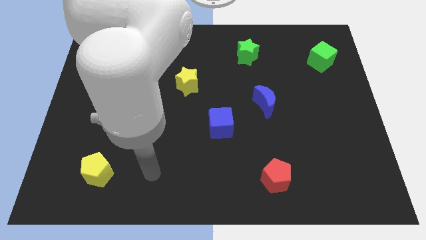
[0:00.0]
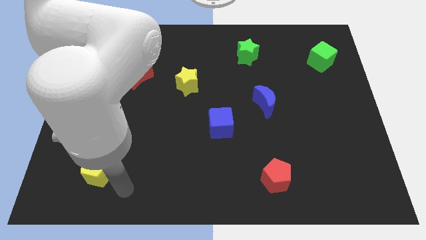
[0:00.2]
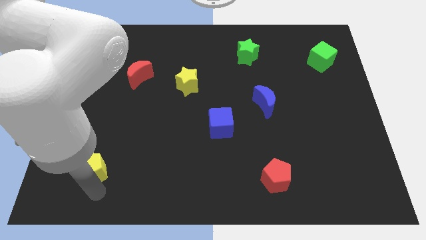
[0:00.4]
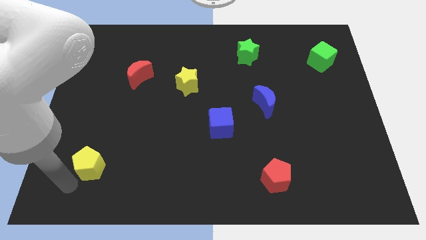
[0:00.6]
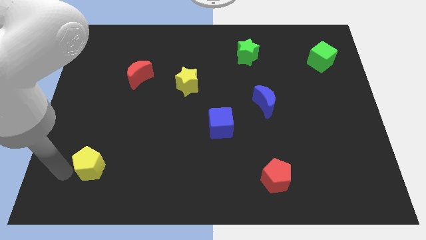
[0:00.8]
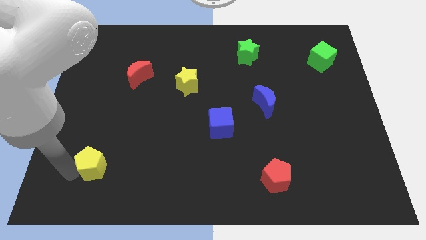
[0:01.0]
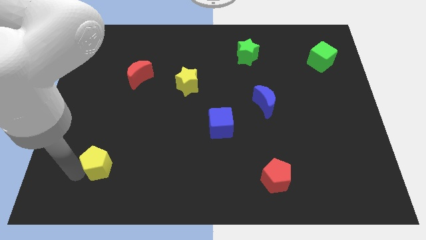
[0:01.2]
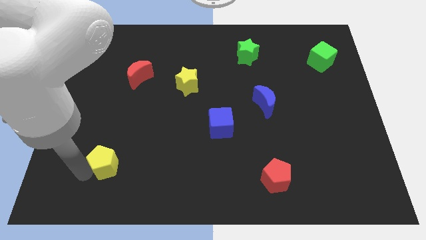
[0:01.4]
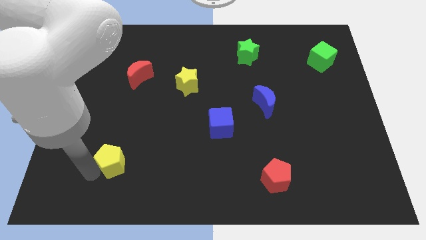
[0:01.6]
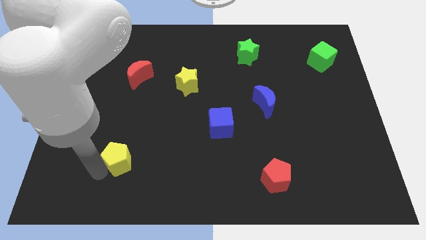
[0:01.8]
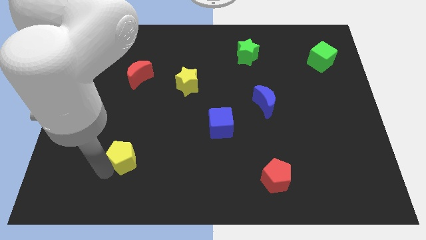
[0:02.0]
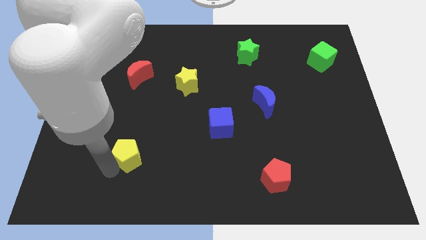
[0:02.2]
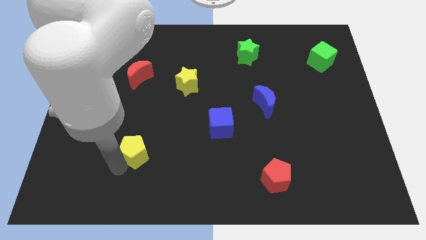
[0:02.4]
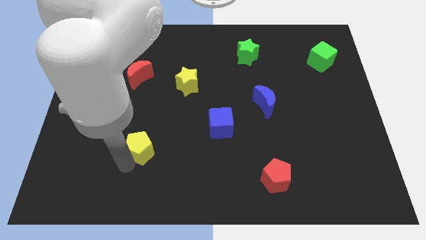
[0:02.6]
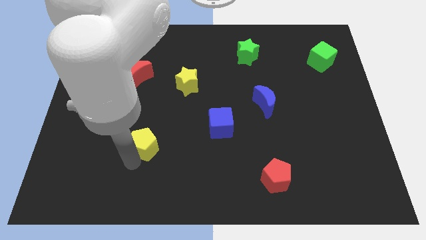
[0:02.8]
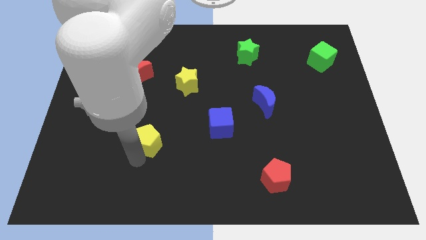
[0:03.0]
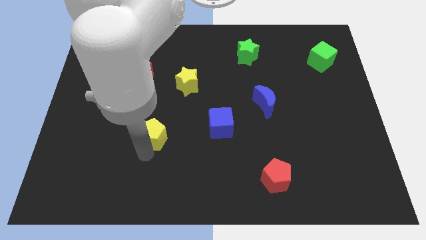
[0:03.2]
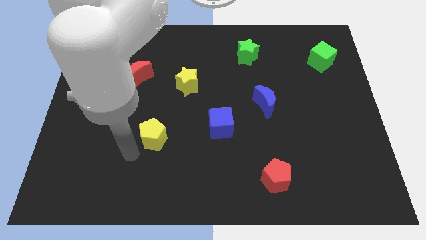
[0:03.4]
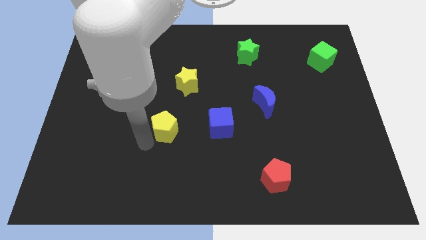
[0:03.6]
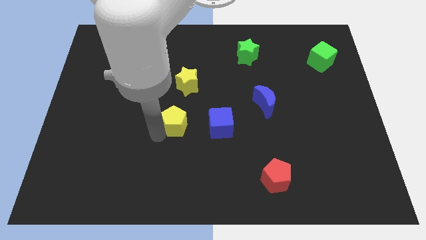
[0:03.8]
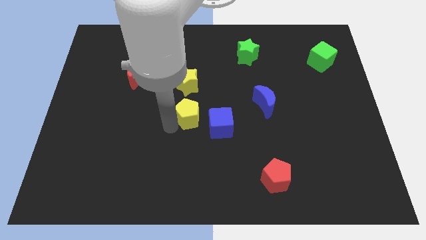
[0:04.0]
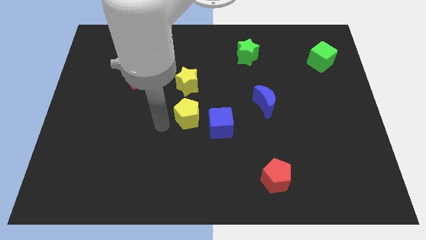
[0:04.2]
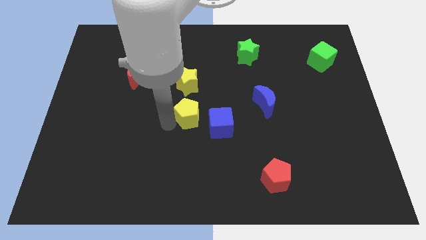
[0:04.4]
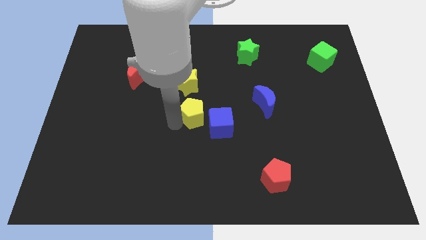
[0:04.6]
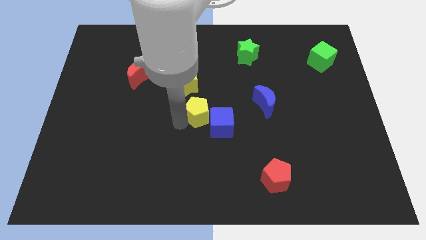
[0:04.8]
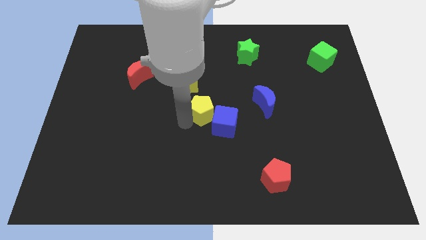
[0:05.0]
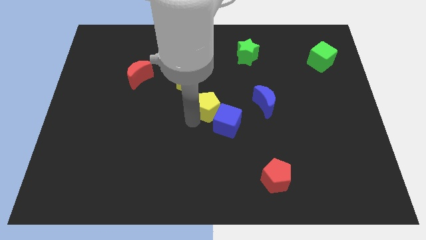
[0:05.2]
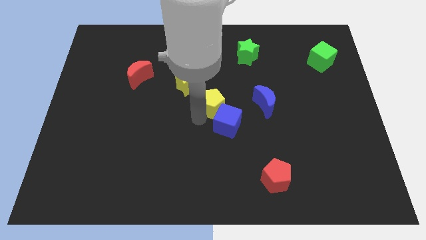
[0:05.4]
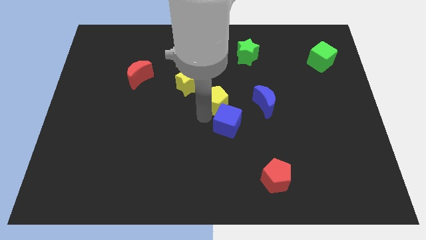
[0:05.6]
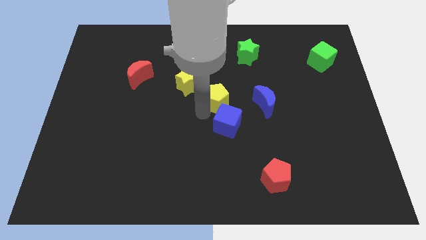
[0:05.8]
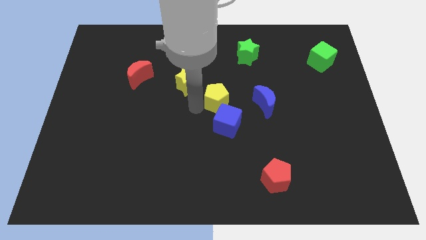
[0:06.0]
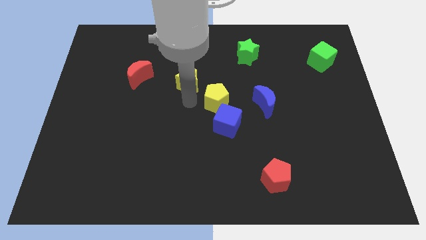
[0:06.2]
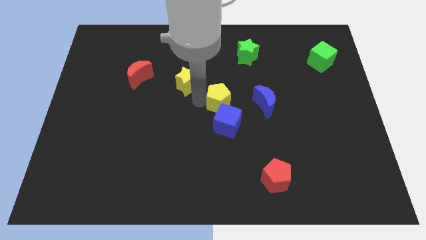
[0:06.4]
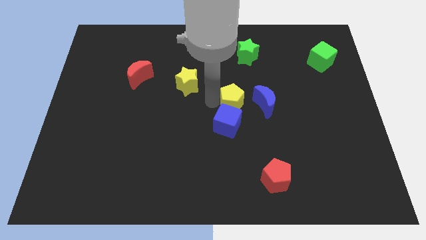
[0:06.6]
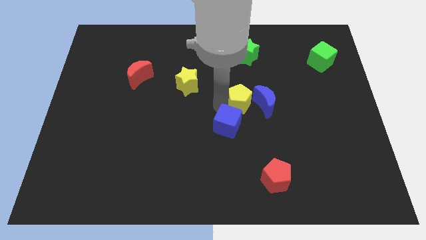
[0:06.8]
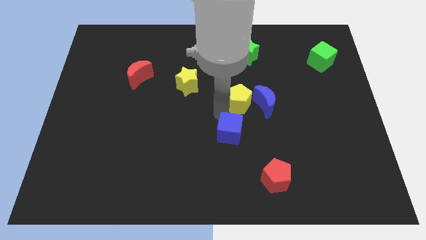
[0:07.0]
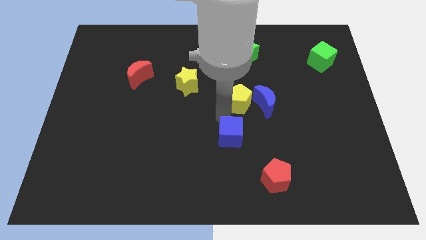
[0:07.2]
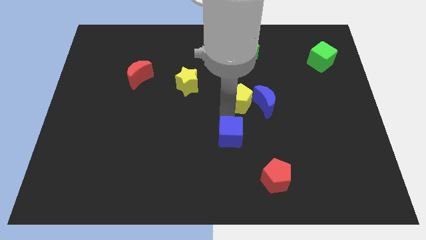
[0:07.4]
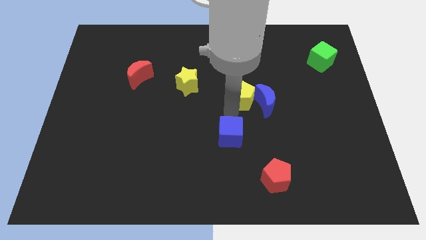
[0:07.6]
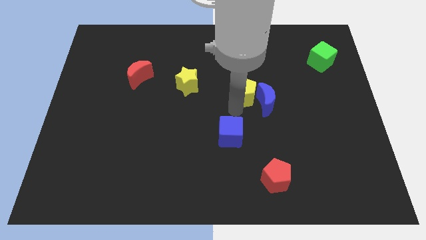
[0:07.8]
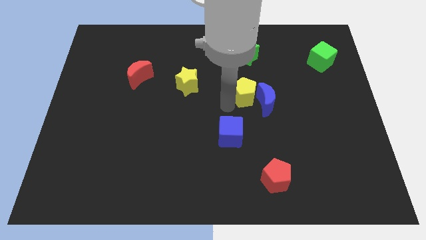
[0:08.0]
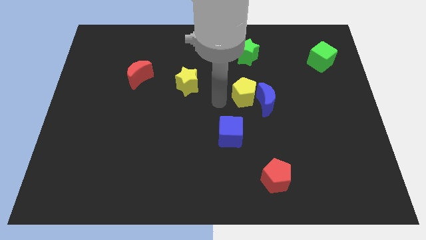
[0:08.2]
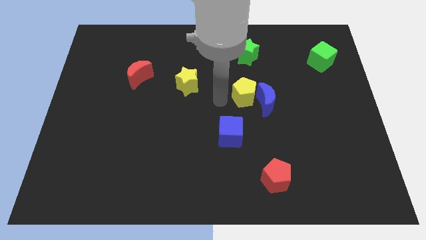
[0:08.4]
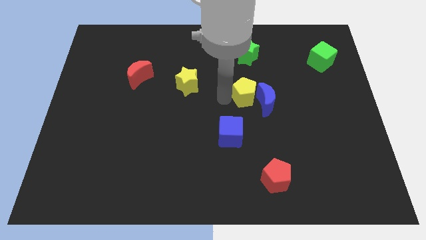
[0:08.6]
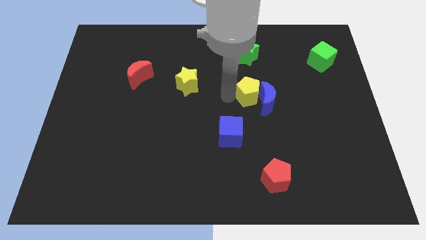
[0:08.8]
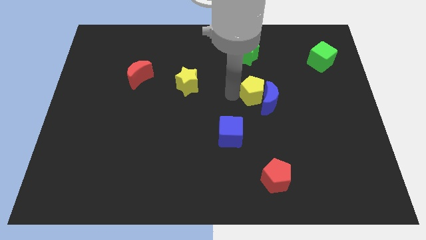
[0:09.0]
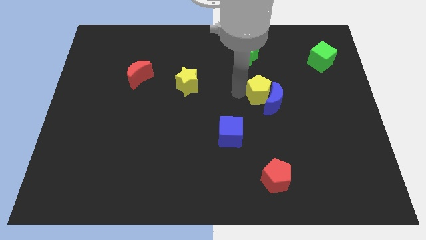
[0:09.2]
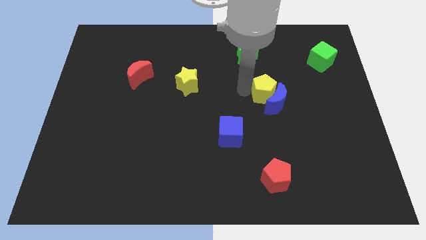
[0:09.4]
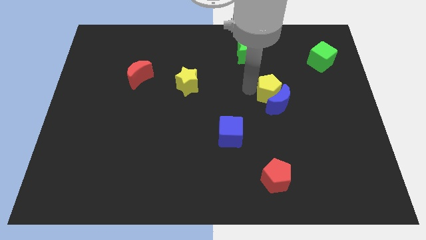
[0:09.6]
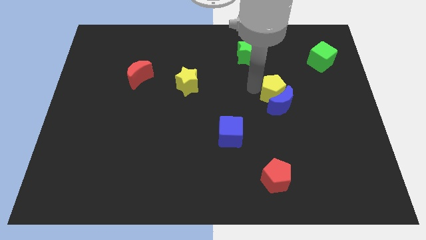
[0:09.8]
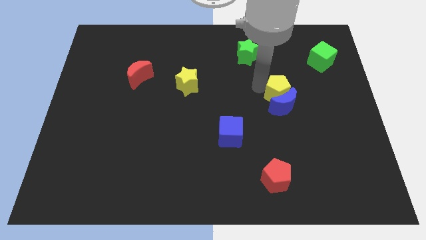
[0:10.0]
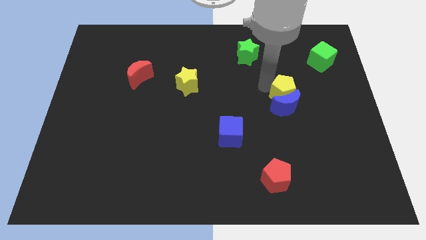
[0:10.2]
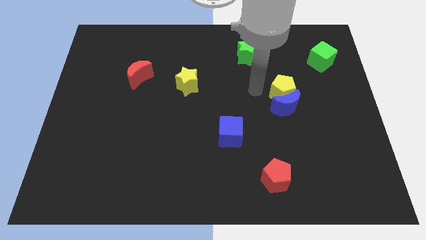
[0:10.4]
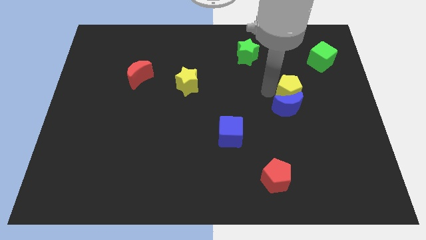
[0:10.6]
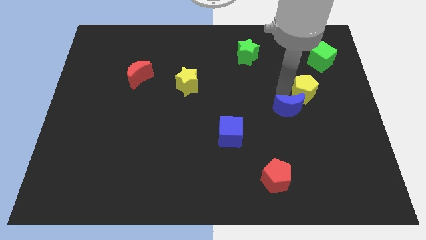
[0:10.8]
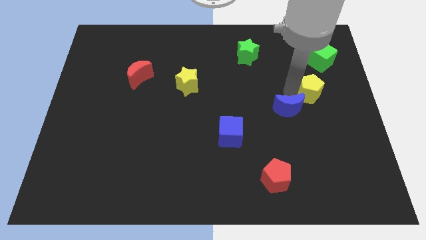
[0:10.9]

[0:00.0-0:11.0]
move the yellow pentagon below the green cube

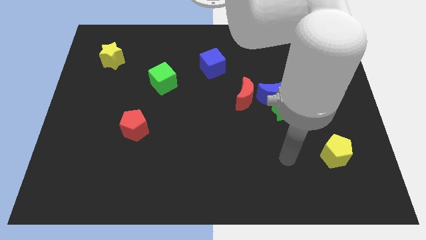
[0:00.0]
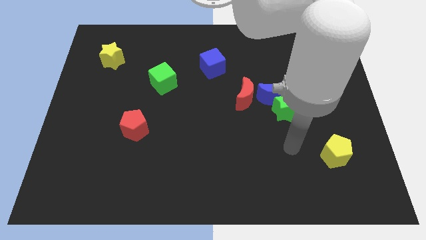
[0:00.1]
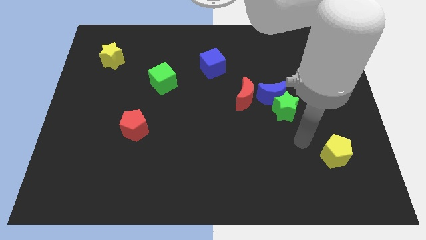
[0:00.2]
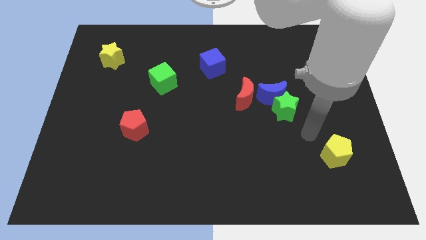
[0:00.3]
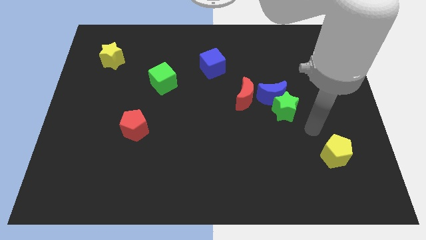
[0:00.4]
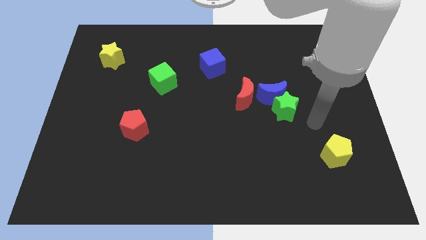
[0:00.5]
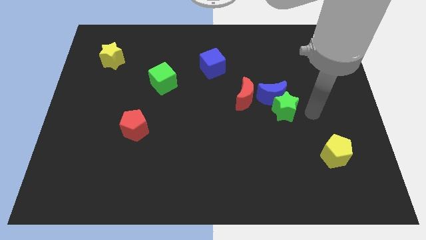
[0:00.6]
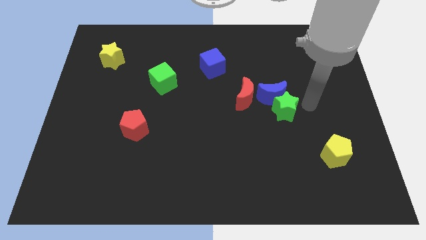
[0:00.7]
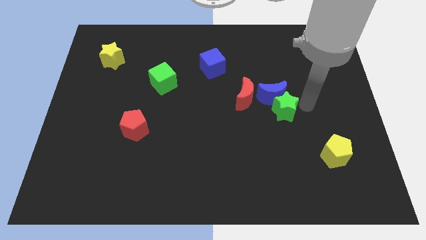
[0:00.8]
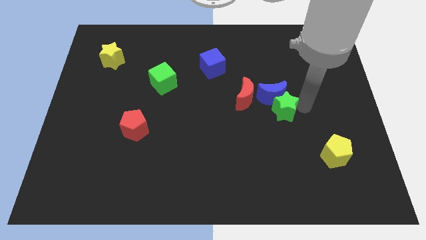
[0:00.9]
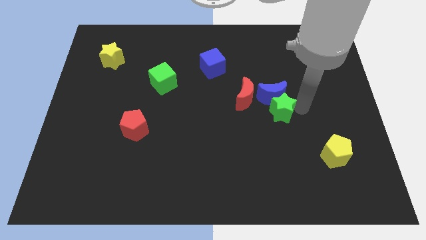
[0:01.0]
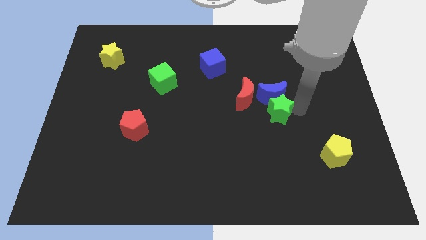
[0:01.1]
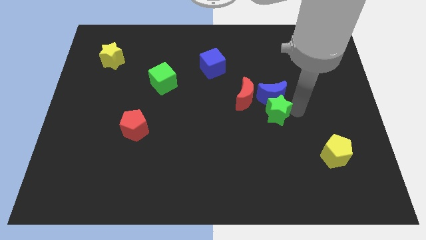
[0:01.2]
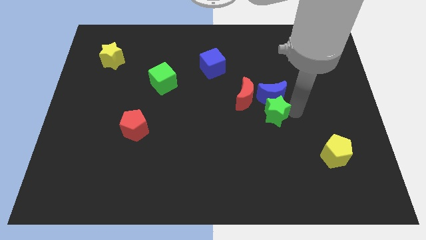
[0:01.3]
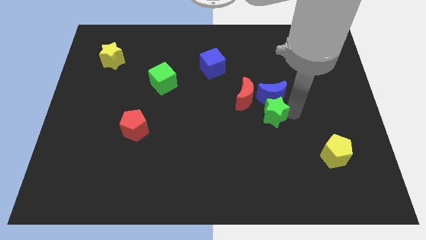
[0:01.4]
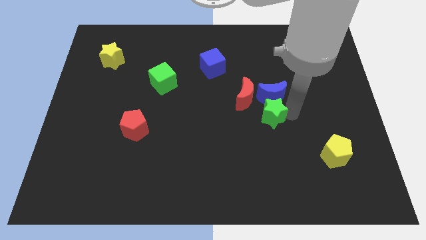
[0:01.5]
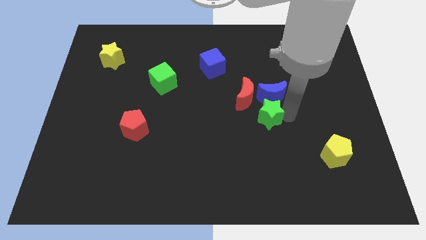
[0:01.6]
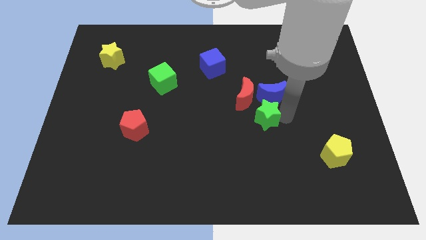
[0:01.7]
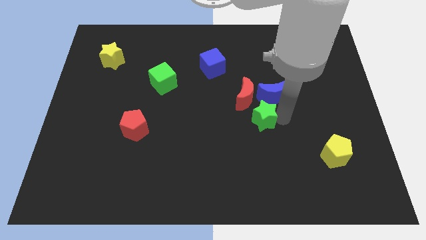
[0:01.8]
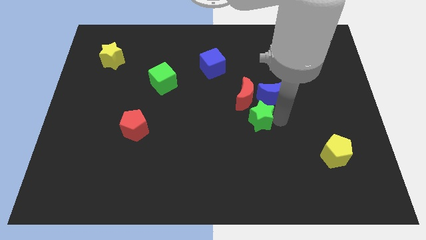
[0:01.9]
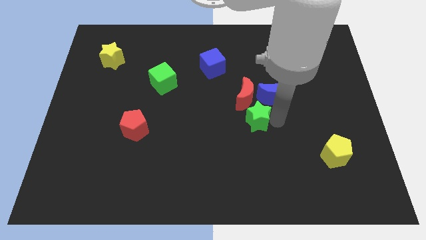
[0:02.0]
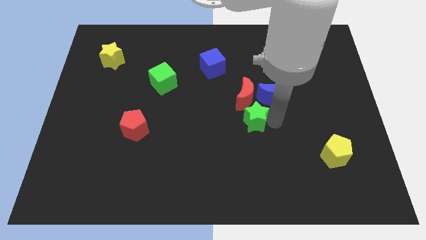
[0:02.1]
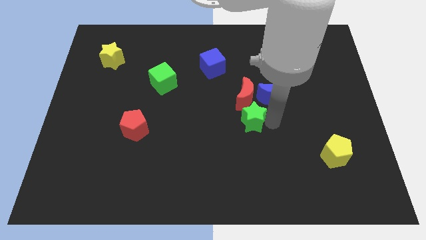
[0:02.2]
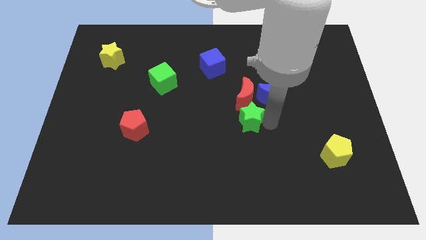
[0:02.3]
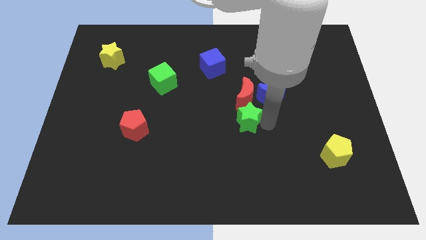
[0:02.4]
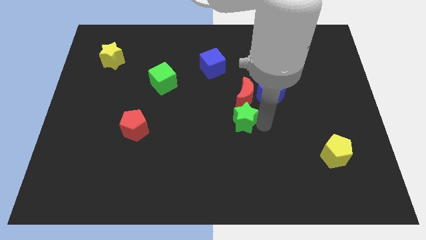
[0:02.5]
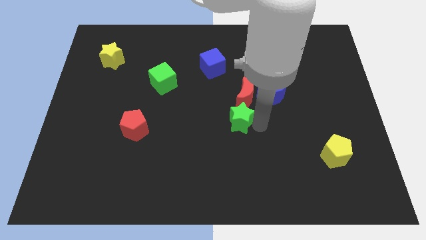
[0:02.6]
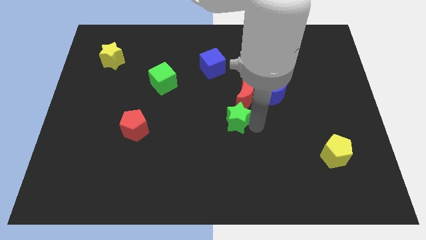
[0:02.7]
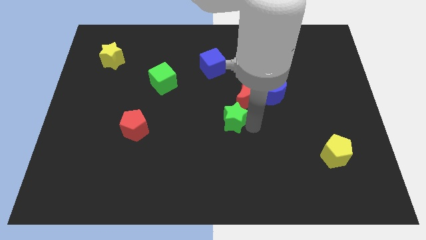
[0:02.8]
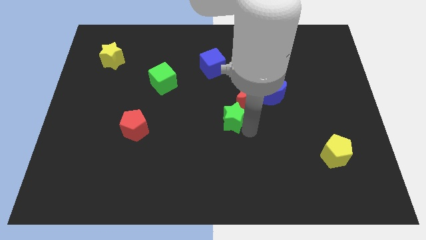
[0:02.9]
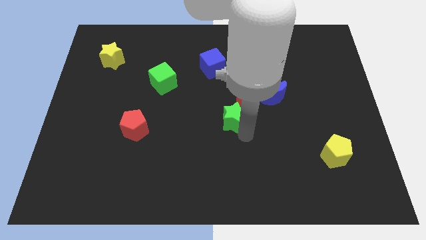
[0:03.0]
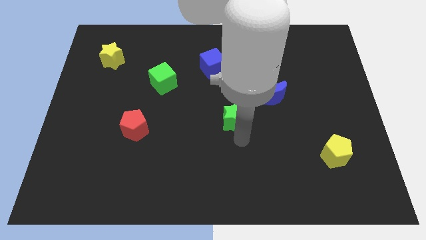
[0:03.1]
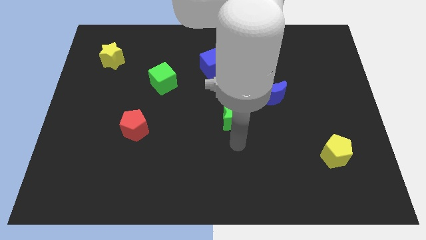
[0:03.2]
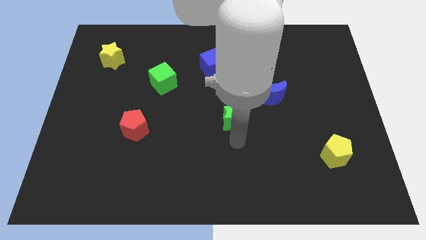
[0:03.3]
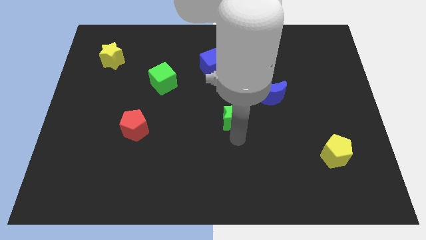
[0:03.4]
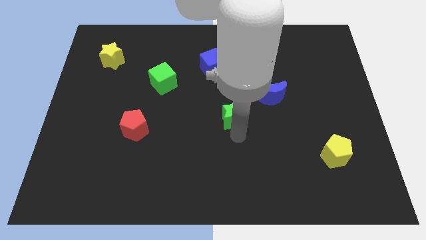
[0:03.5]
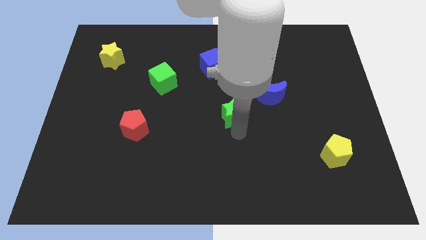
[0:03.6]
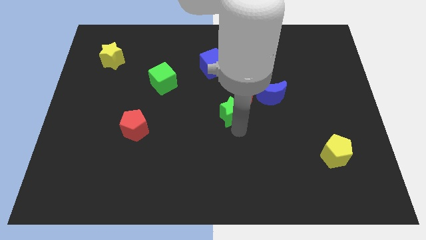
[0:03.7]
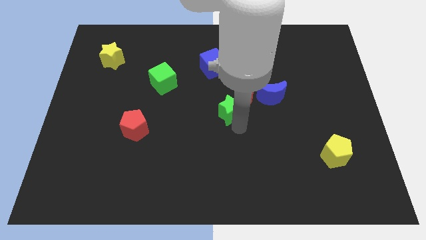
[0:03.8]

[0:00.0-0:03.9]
move the green star left of the blue moon
